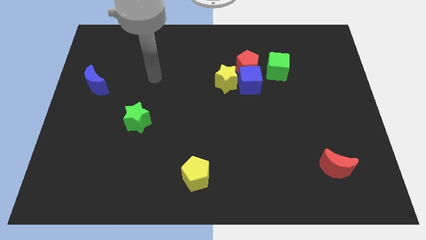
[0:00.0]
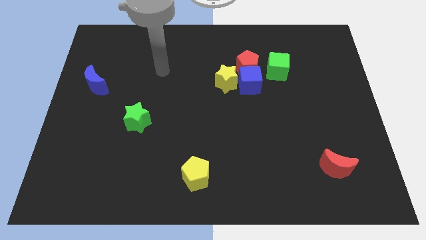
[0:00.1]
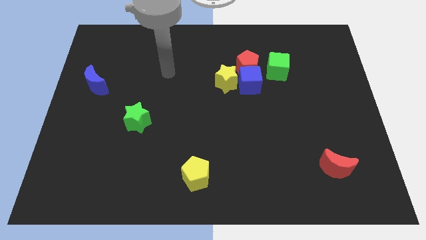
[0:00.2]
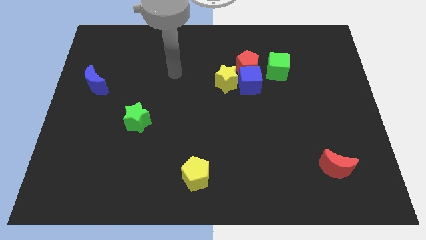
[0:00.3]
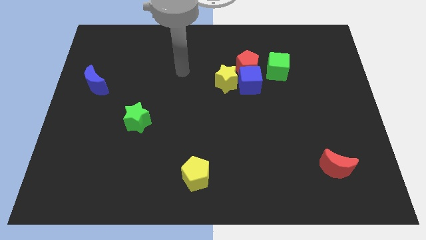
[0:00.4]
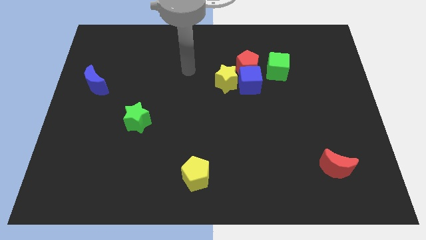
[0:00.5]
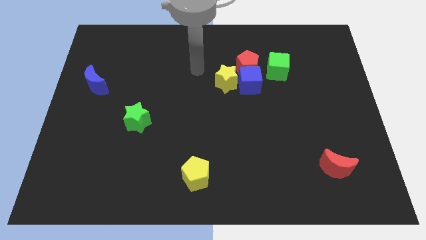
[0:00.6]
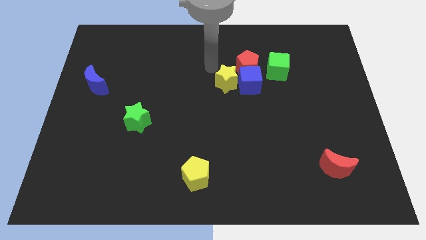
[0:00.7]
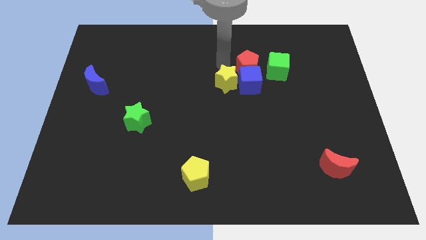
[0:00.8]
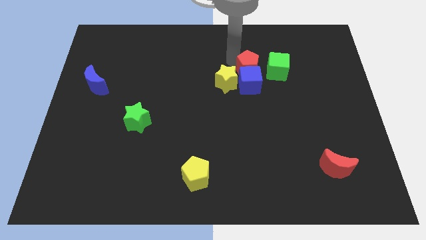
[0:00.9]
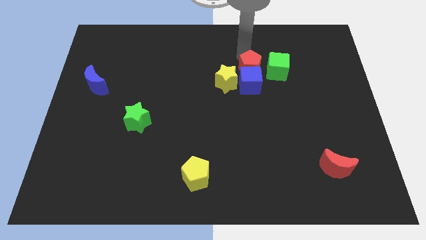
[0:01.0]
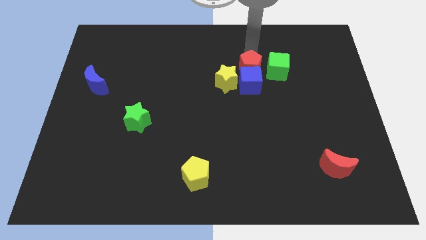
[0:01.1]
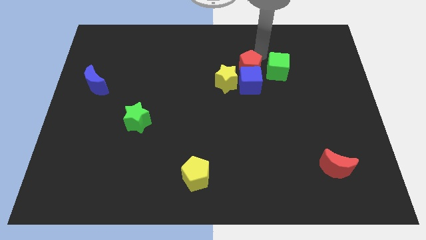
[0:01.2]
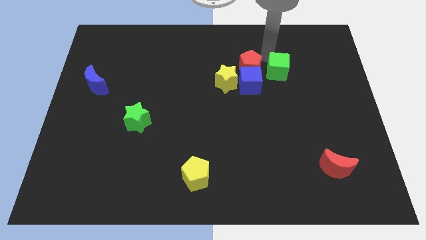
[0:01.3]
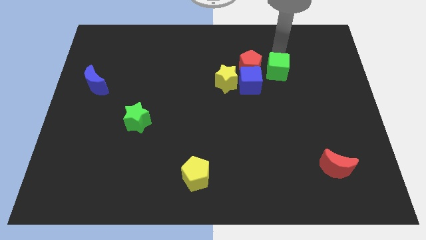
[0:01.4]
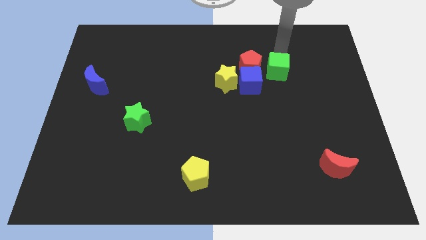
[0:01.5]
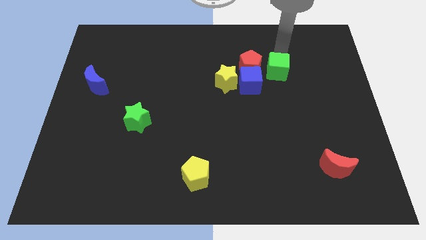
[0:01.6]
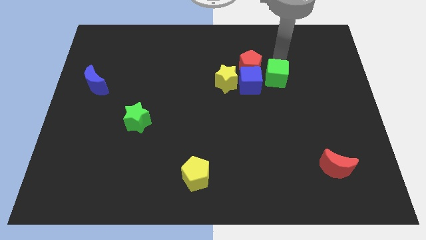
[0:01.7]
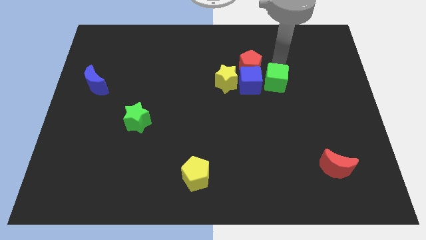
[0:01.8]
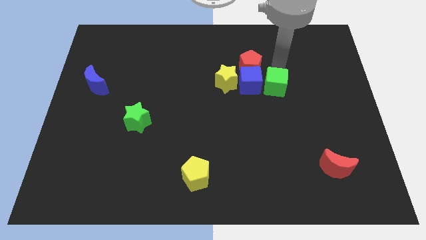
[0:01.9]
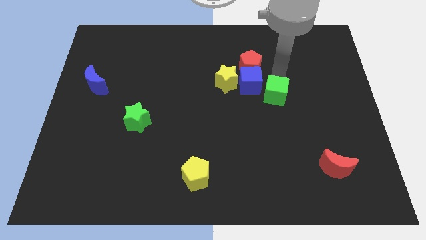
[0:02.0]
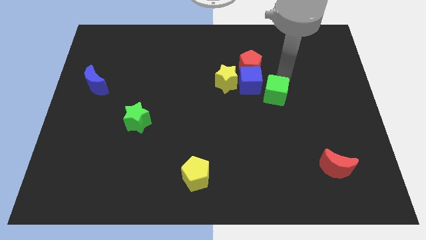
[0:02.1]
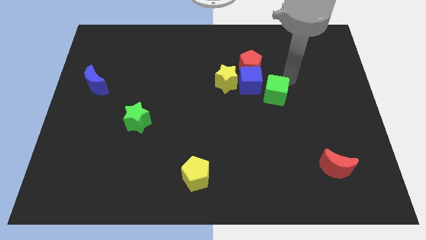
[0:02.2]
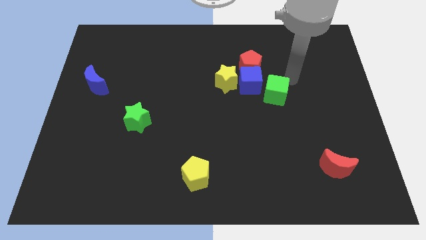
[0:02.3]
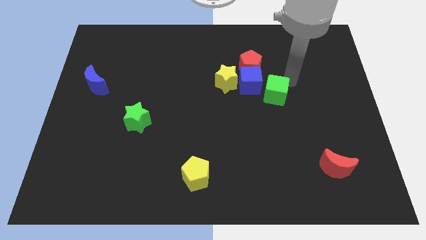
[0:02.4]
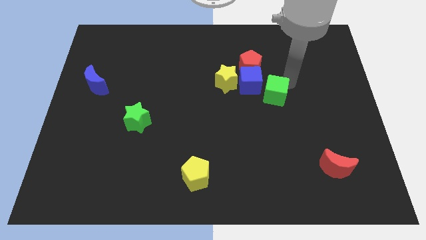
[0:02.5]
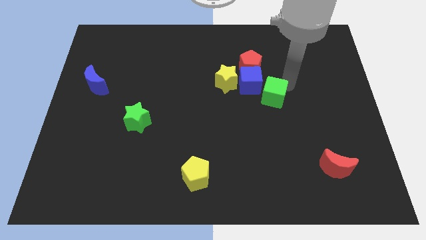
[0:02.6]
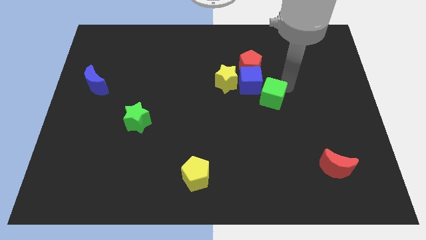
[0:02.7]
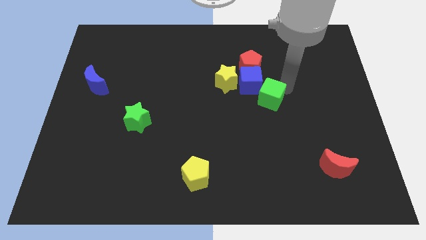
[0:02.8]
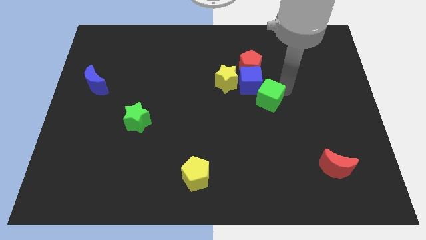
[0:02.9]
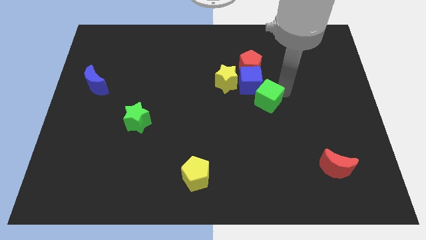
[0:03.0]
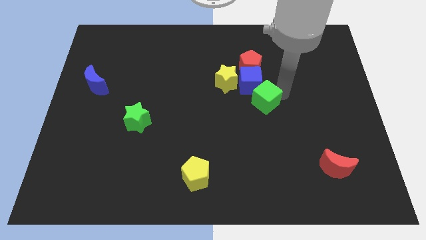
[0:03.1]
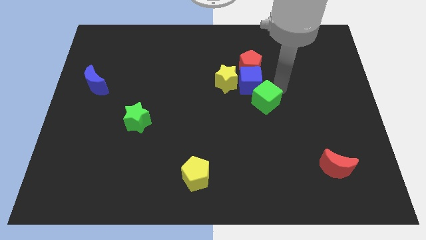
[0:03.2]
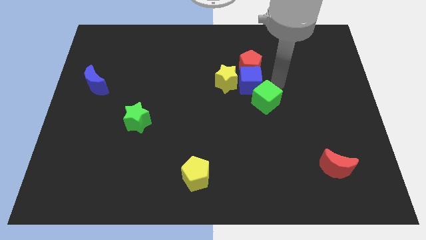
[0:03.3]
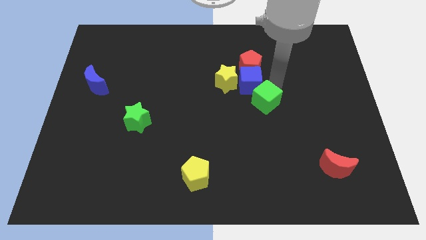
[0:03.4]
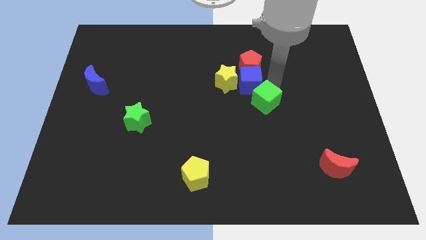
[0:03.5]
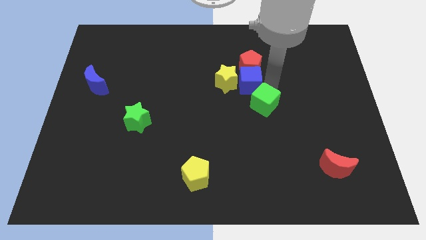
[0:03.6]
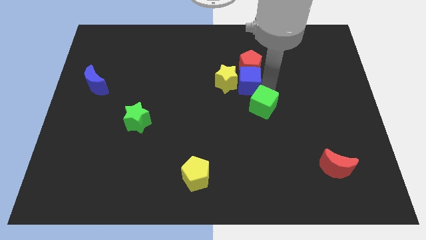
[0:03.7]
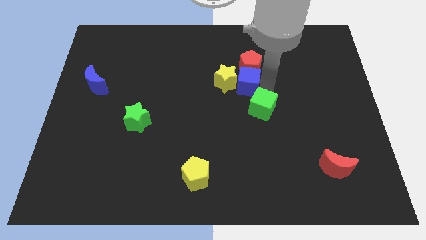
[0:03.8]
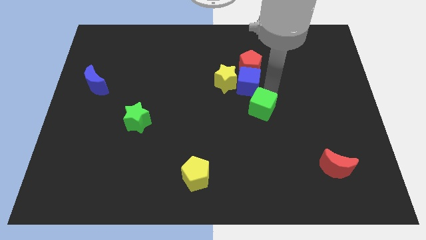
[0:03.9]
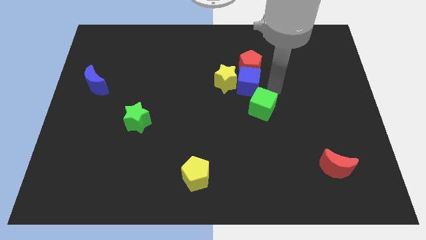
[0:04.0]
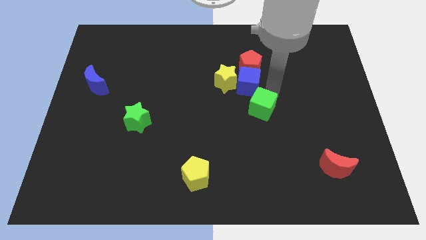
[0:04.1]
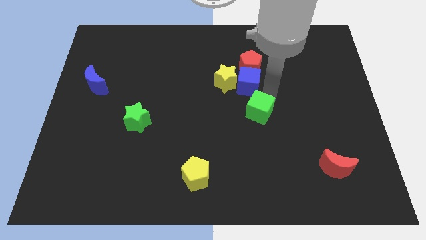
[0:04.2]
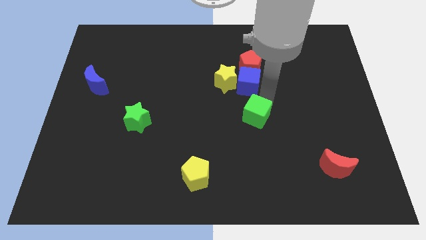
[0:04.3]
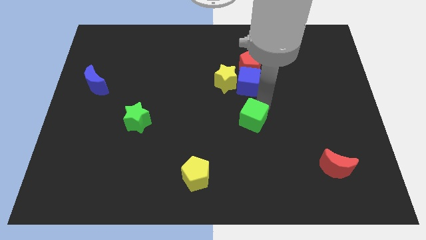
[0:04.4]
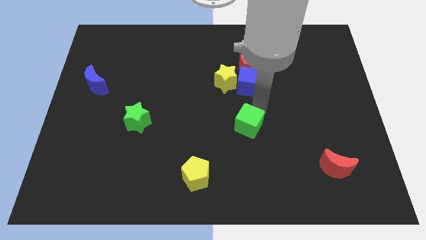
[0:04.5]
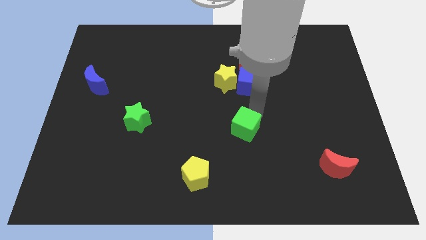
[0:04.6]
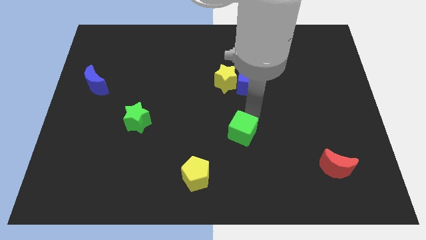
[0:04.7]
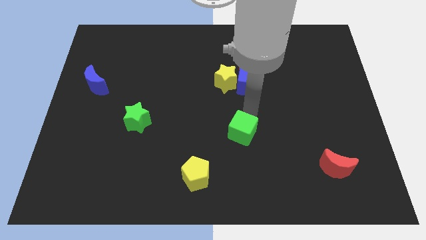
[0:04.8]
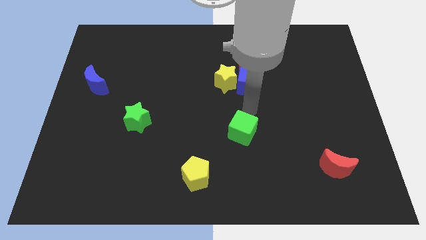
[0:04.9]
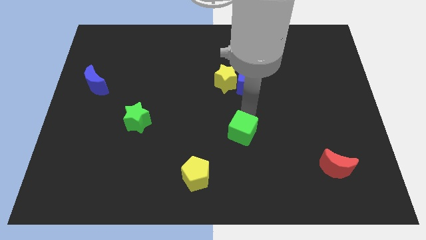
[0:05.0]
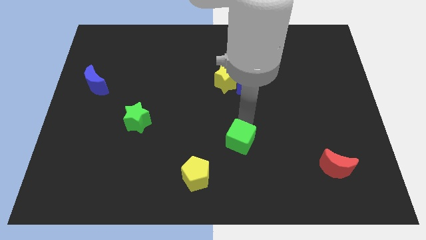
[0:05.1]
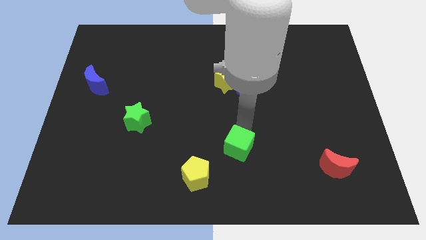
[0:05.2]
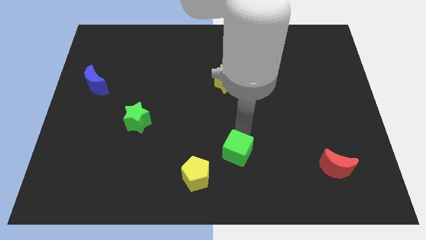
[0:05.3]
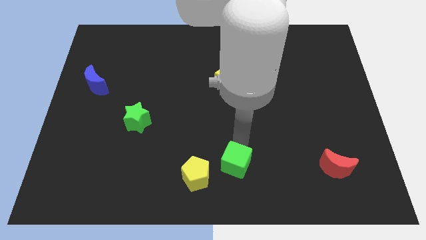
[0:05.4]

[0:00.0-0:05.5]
put the green cube to the bottom

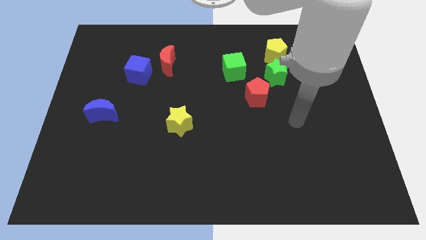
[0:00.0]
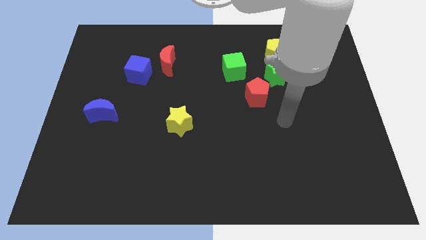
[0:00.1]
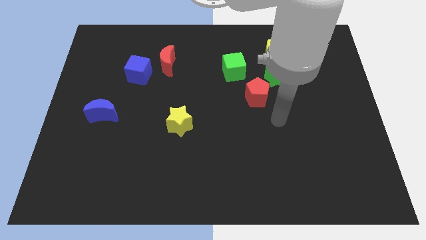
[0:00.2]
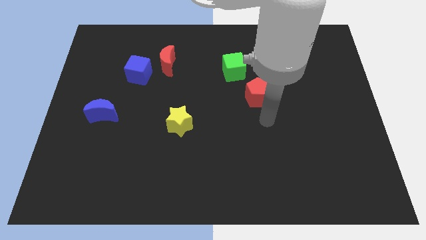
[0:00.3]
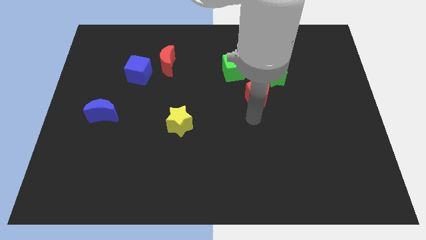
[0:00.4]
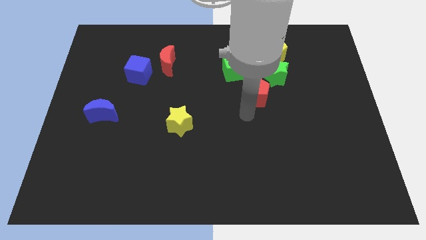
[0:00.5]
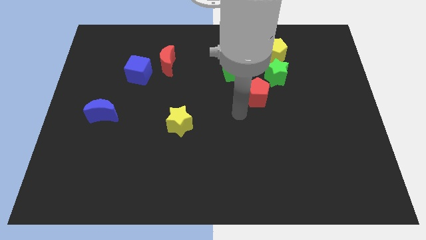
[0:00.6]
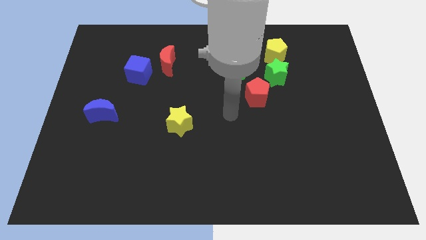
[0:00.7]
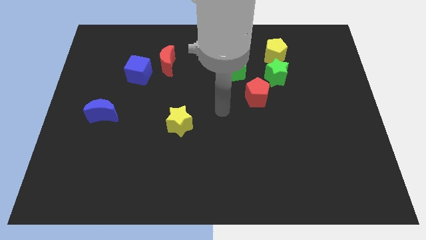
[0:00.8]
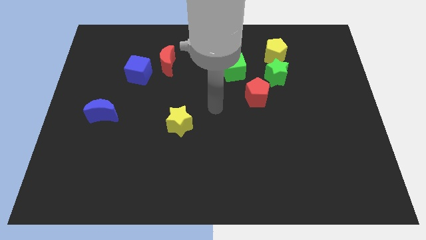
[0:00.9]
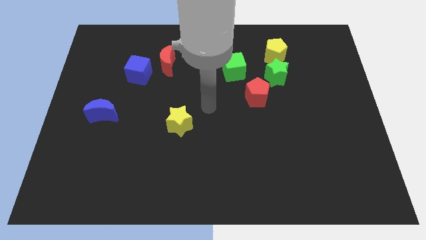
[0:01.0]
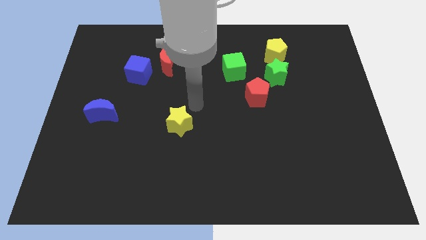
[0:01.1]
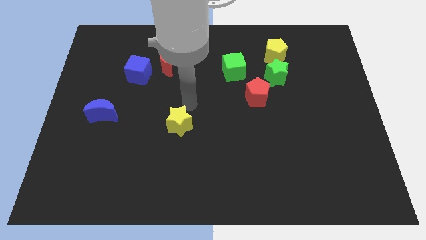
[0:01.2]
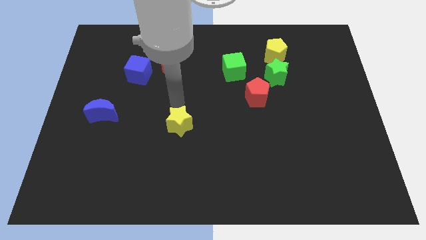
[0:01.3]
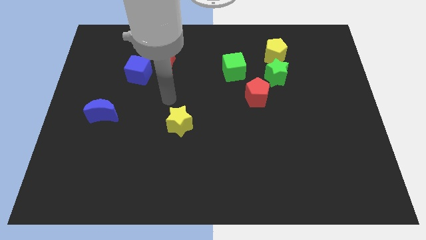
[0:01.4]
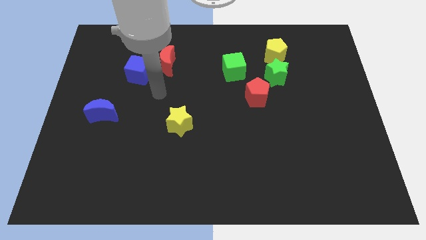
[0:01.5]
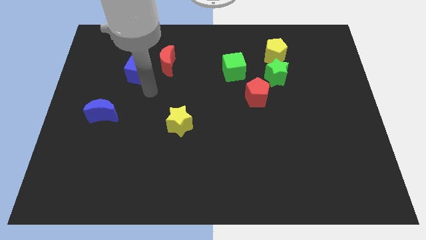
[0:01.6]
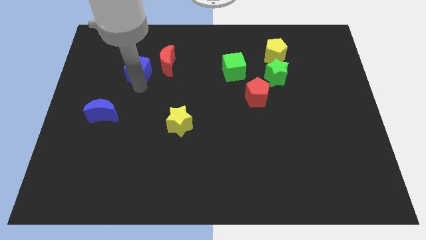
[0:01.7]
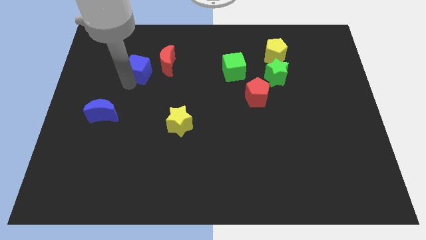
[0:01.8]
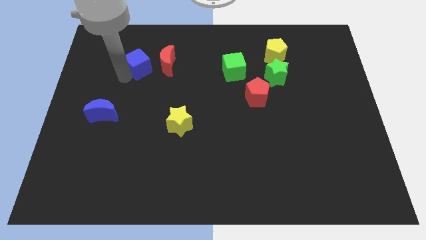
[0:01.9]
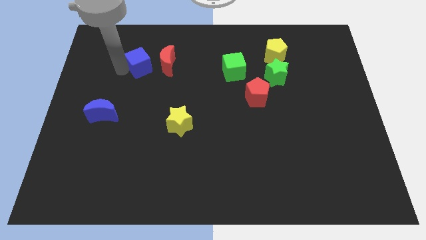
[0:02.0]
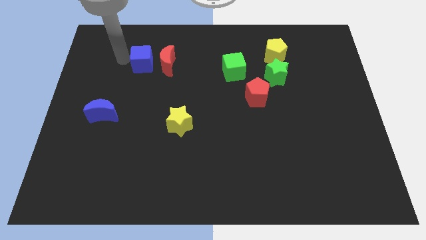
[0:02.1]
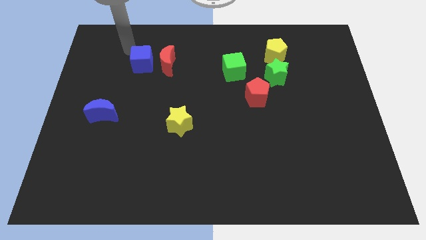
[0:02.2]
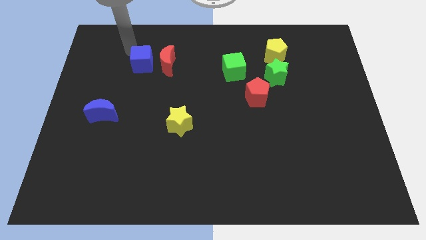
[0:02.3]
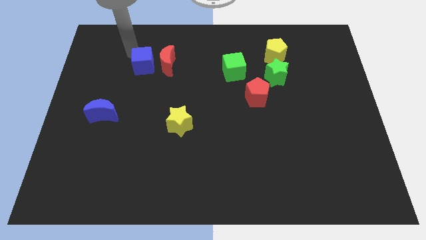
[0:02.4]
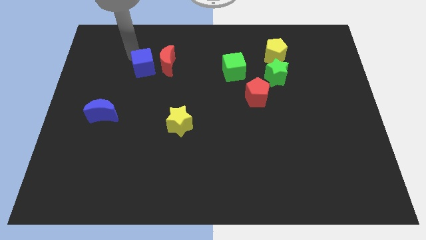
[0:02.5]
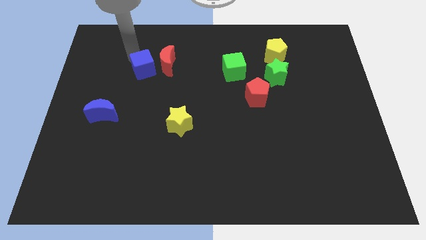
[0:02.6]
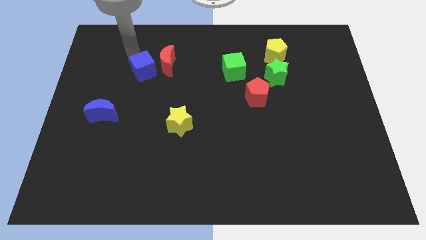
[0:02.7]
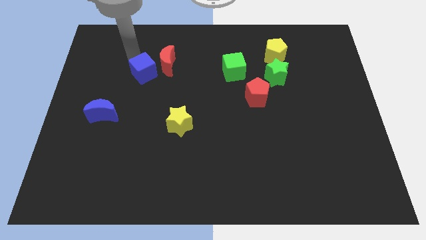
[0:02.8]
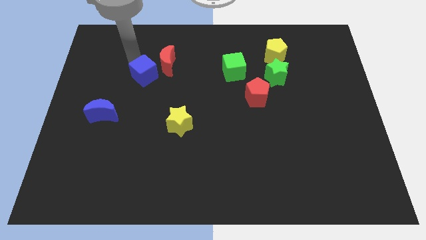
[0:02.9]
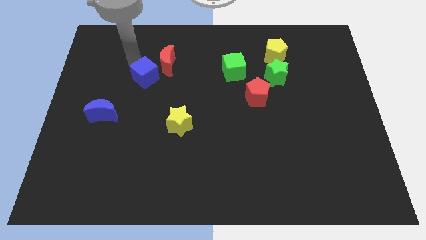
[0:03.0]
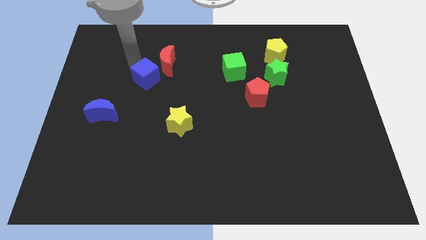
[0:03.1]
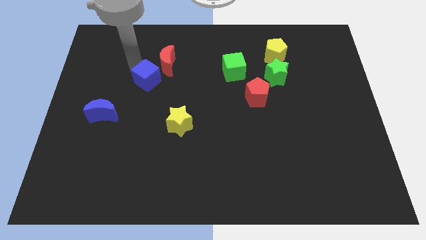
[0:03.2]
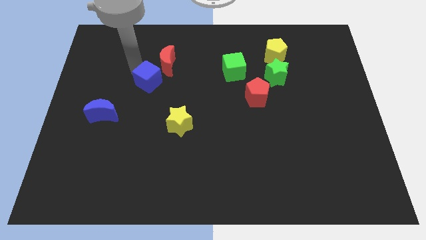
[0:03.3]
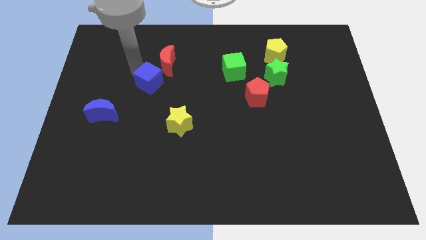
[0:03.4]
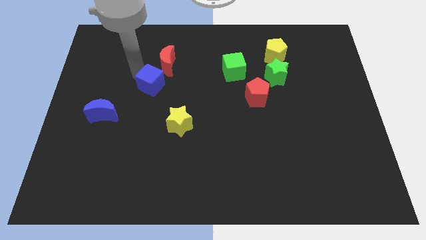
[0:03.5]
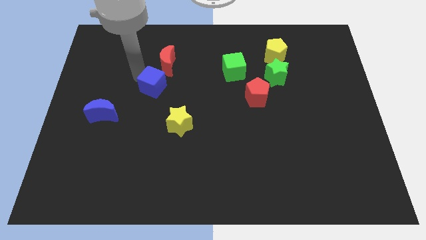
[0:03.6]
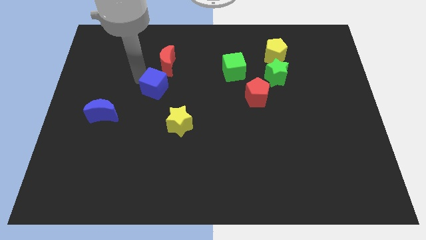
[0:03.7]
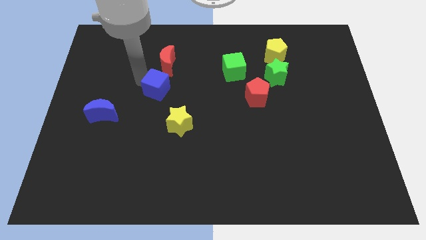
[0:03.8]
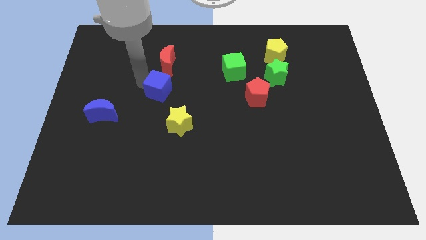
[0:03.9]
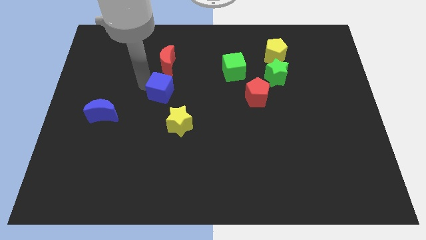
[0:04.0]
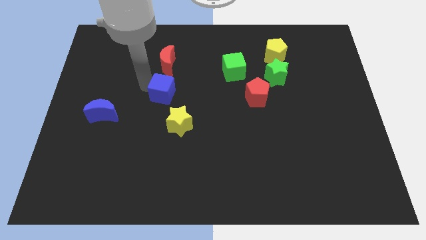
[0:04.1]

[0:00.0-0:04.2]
put the blue cube to the middle of the board
